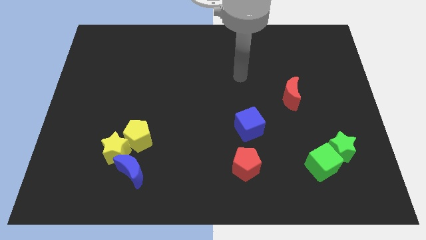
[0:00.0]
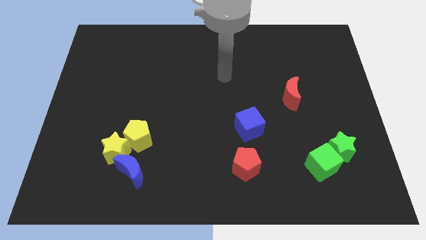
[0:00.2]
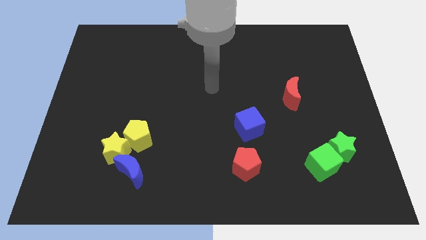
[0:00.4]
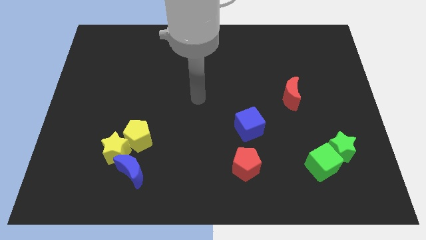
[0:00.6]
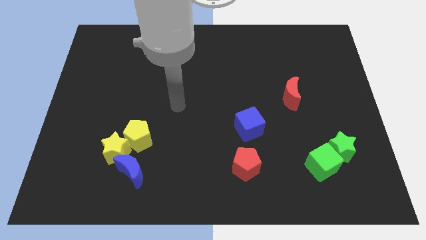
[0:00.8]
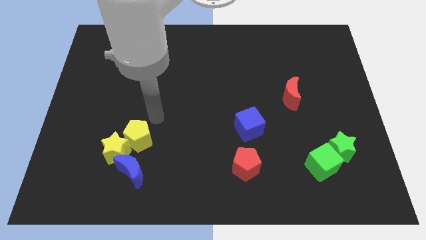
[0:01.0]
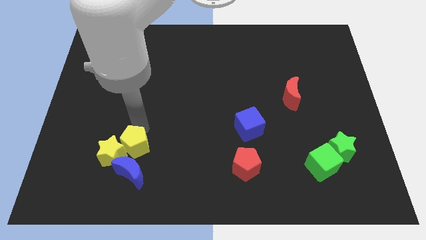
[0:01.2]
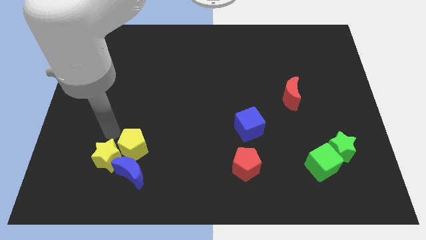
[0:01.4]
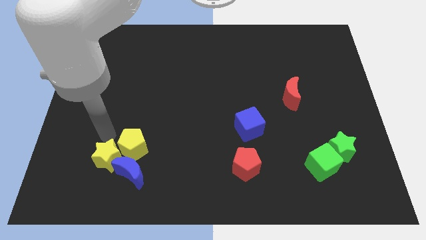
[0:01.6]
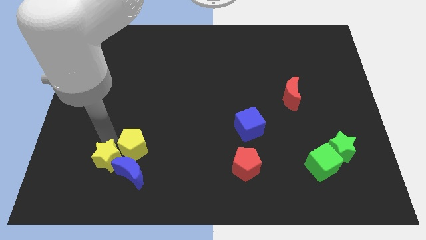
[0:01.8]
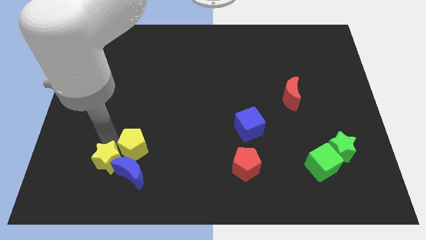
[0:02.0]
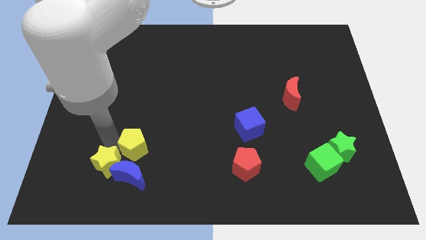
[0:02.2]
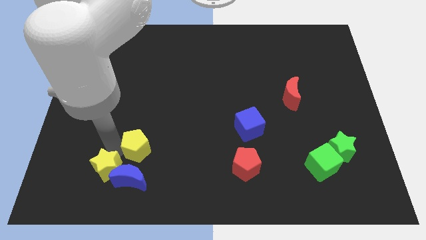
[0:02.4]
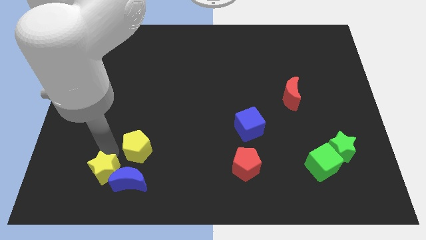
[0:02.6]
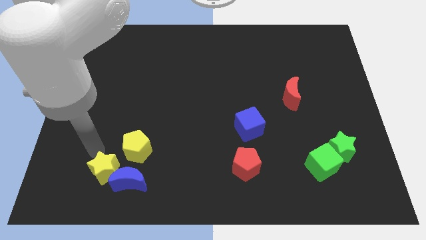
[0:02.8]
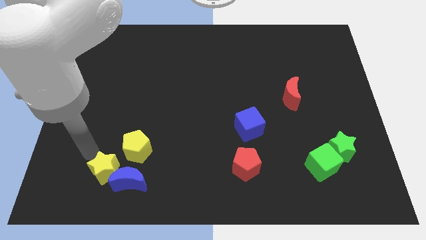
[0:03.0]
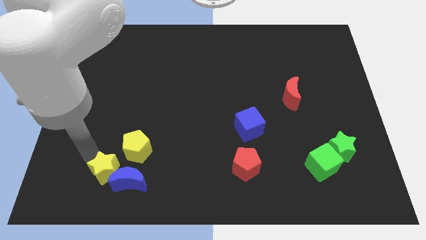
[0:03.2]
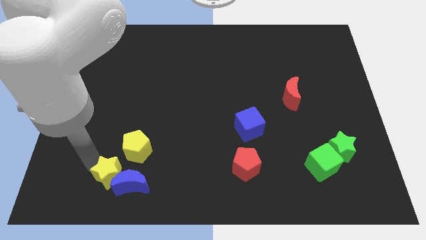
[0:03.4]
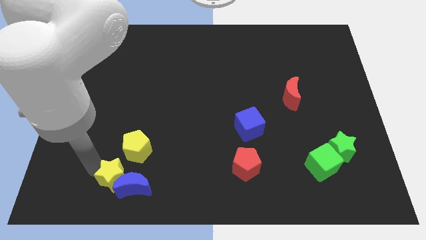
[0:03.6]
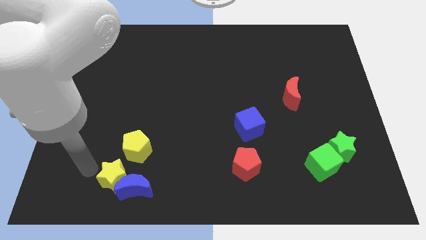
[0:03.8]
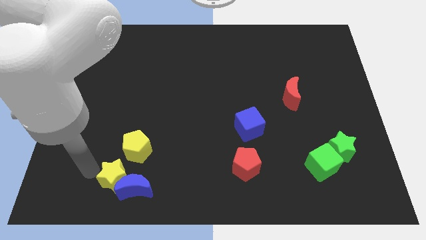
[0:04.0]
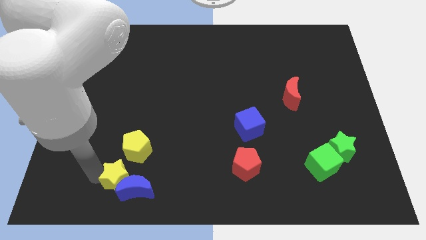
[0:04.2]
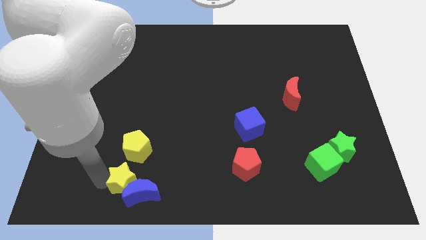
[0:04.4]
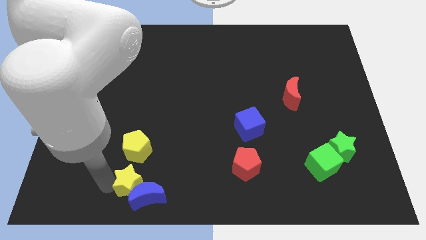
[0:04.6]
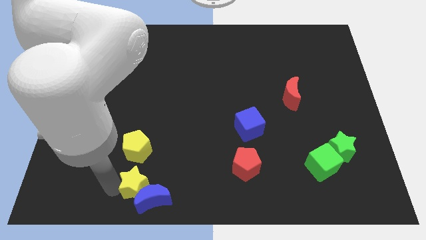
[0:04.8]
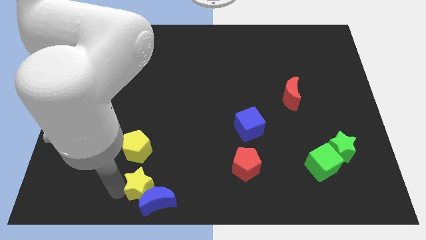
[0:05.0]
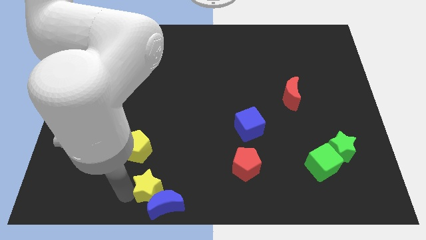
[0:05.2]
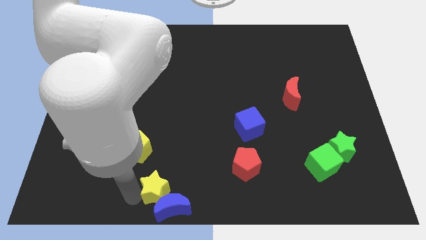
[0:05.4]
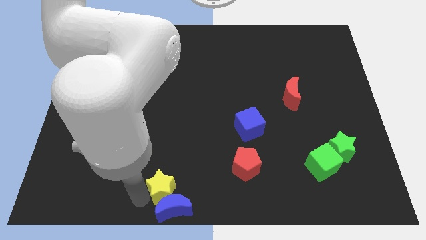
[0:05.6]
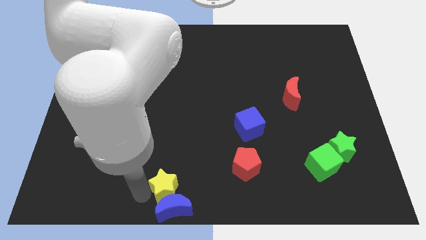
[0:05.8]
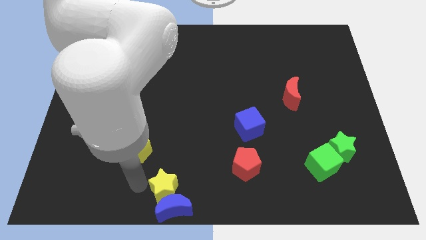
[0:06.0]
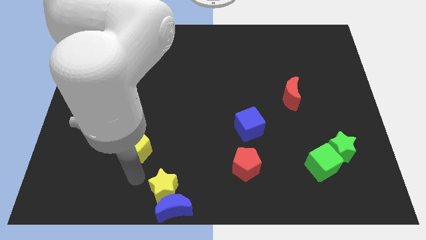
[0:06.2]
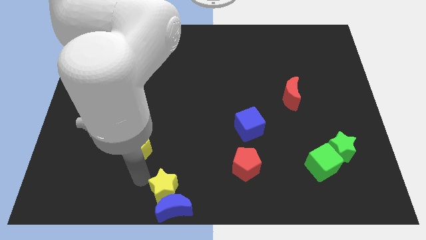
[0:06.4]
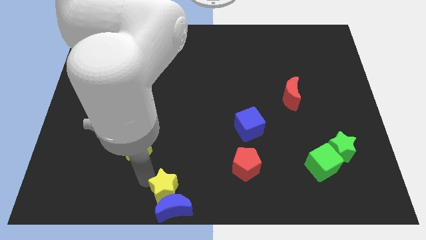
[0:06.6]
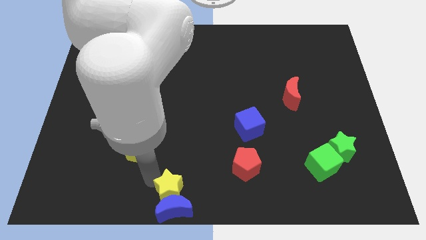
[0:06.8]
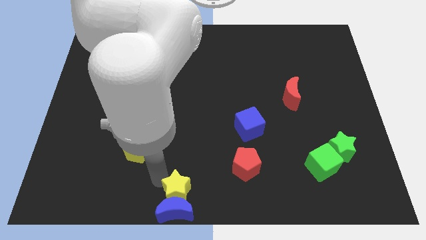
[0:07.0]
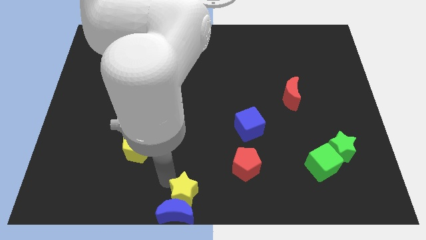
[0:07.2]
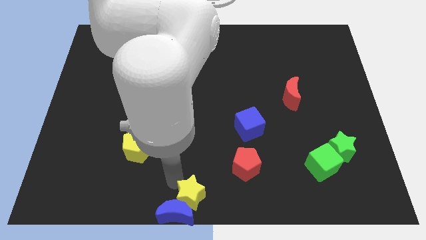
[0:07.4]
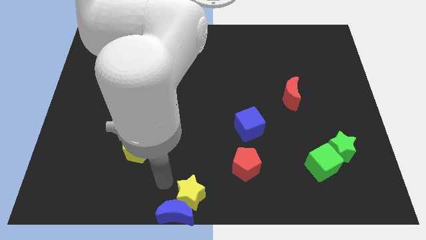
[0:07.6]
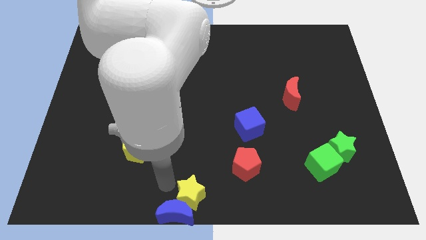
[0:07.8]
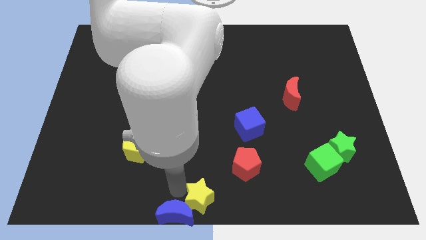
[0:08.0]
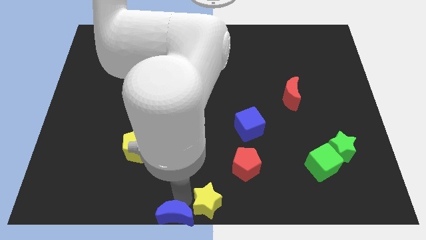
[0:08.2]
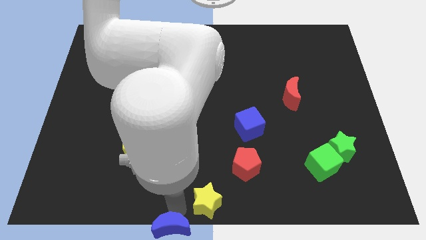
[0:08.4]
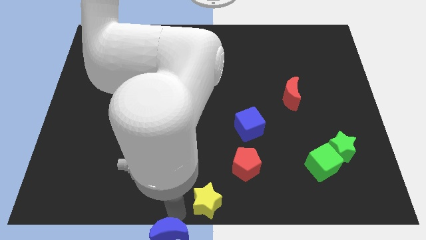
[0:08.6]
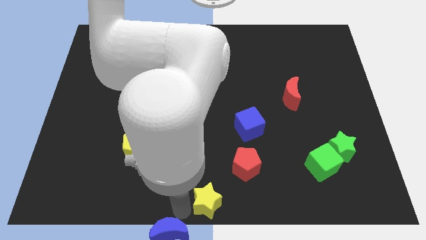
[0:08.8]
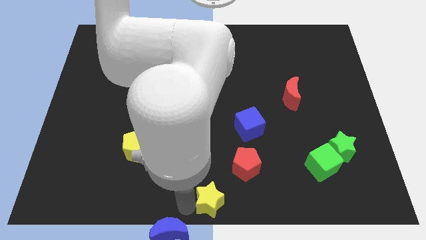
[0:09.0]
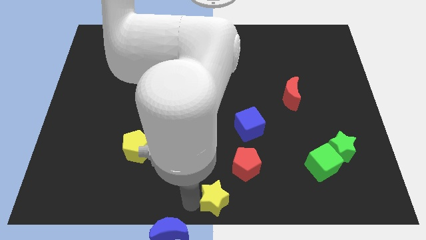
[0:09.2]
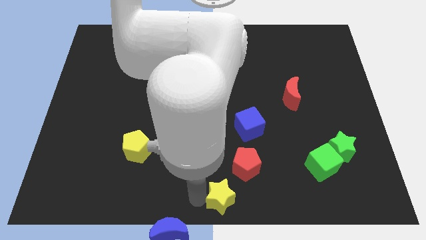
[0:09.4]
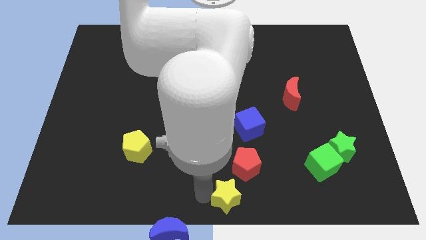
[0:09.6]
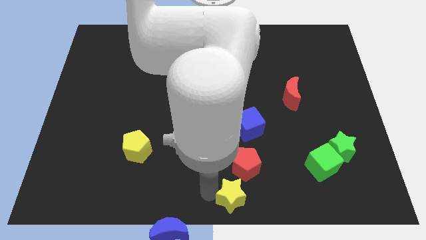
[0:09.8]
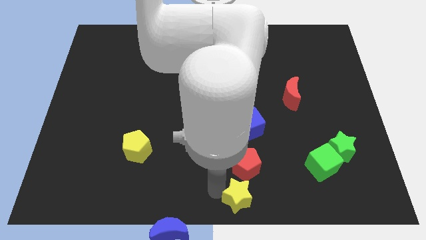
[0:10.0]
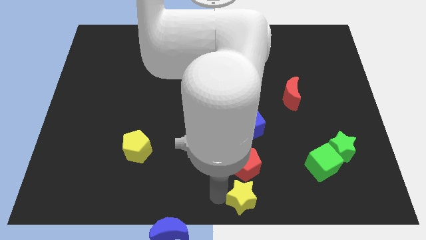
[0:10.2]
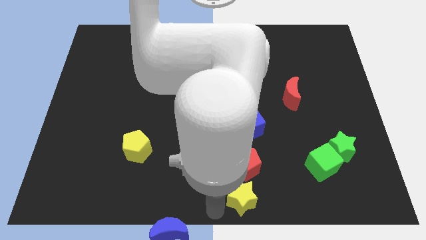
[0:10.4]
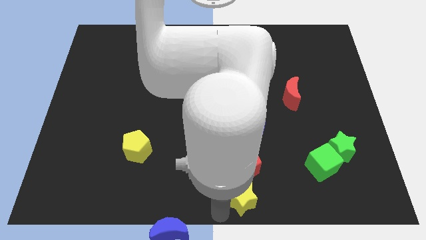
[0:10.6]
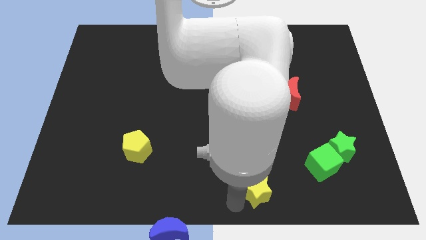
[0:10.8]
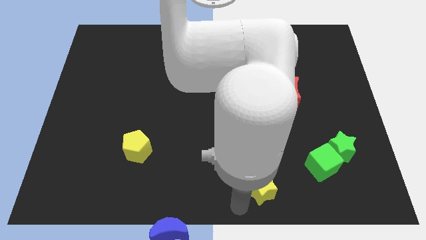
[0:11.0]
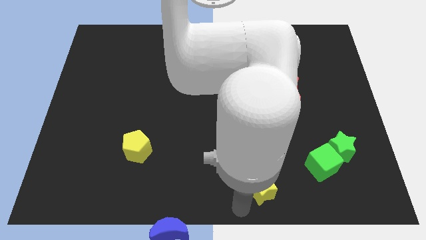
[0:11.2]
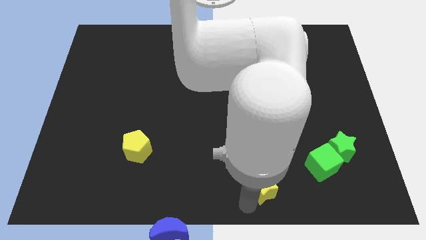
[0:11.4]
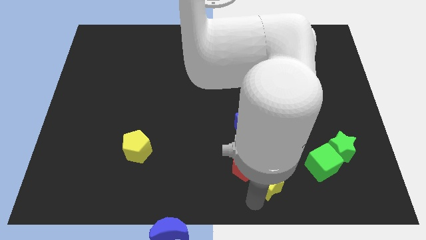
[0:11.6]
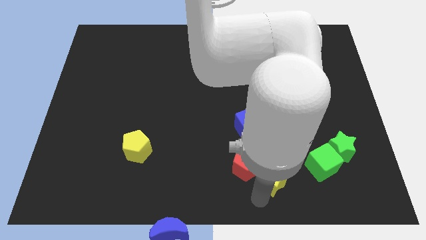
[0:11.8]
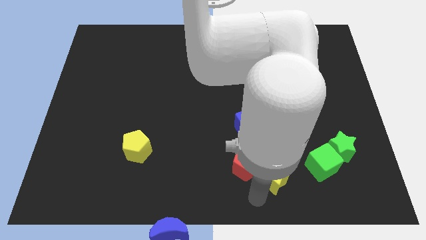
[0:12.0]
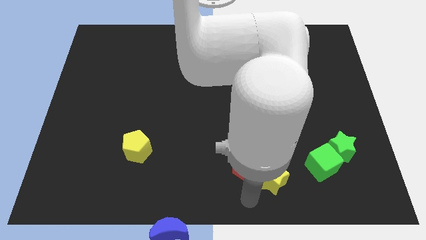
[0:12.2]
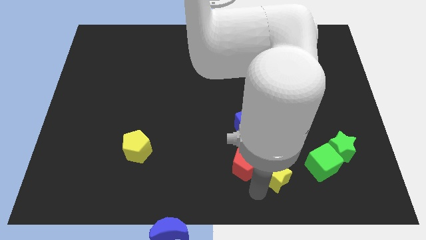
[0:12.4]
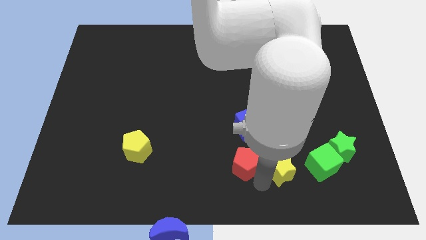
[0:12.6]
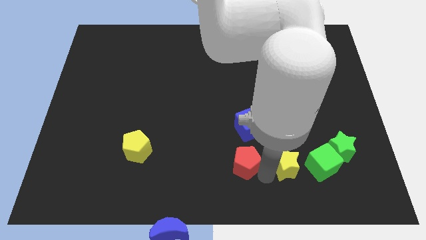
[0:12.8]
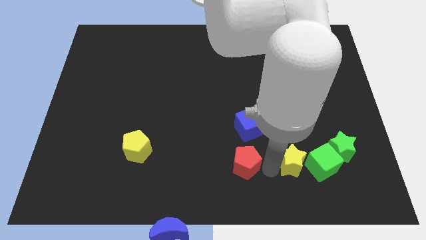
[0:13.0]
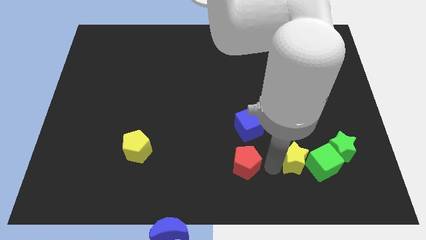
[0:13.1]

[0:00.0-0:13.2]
push the yellow star close to the green cube
